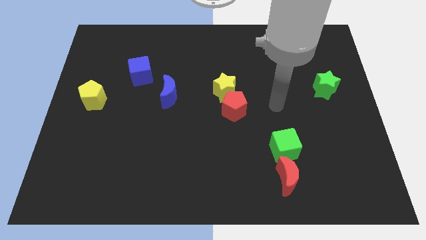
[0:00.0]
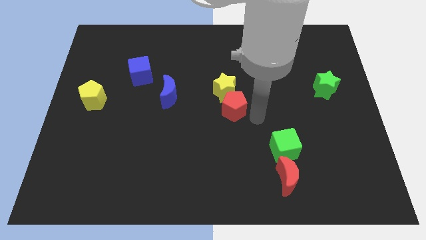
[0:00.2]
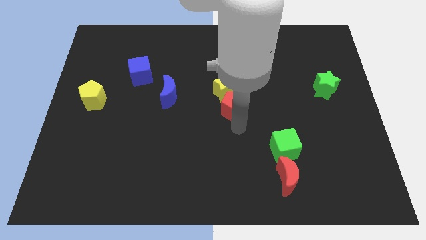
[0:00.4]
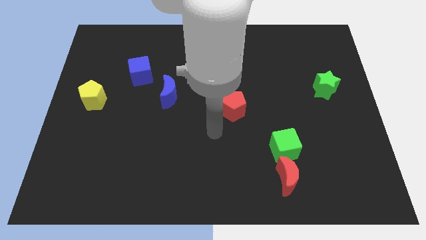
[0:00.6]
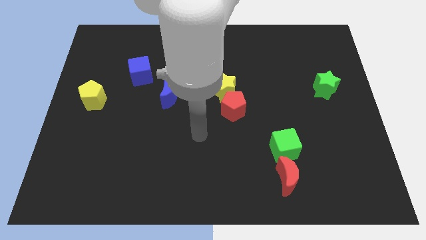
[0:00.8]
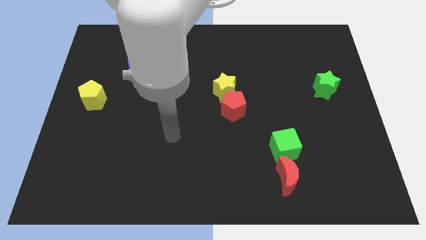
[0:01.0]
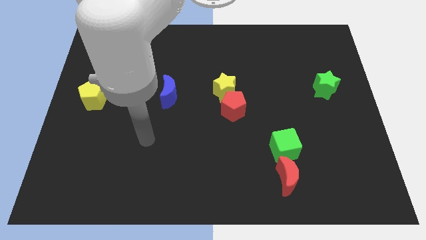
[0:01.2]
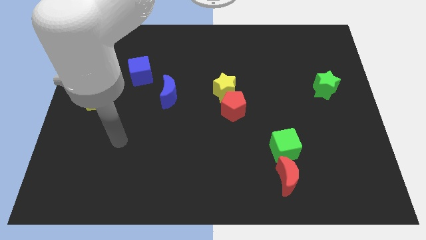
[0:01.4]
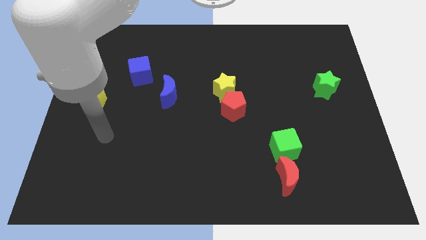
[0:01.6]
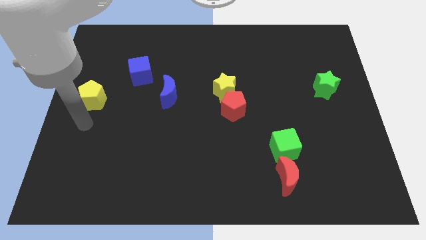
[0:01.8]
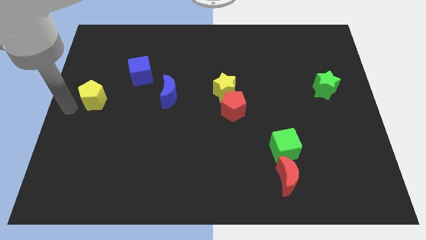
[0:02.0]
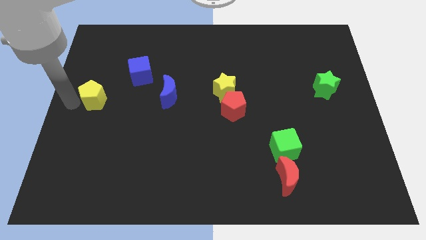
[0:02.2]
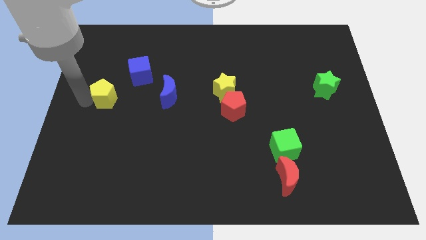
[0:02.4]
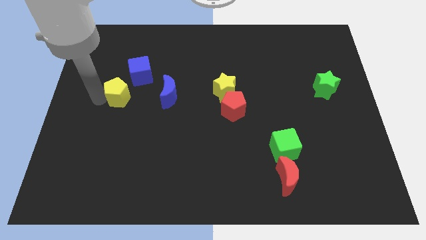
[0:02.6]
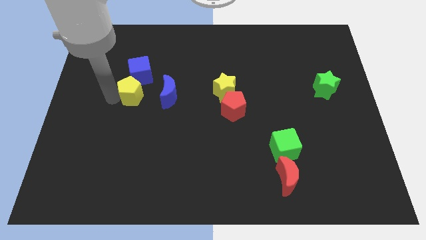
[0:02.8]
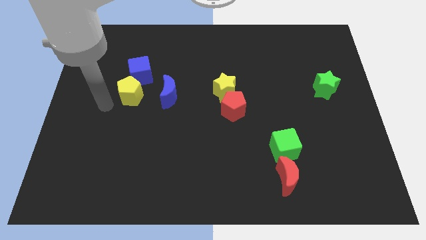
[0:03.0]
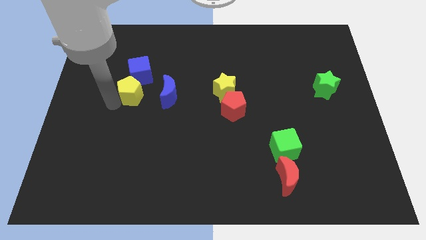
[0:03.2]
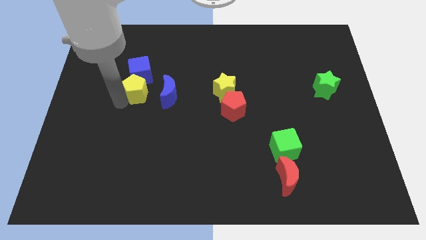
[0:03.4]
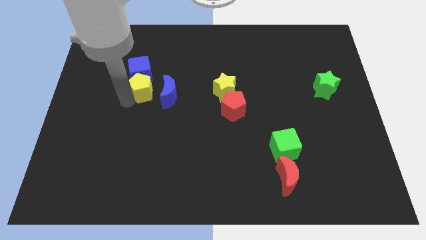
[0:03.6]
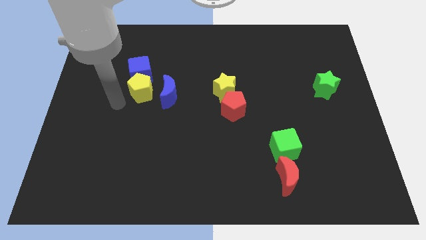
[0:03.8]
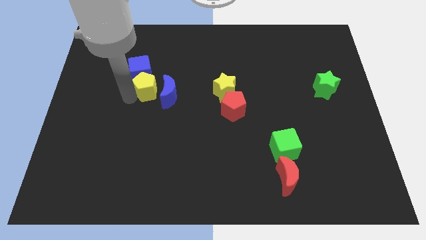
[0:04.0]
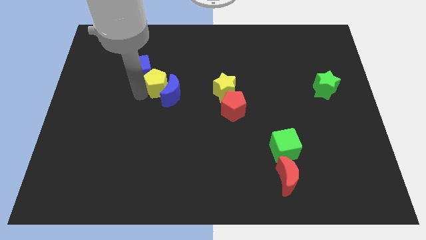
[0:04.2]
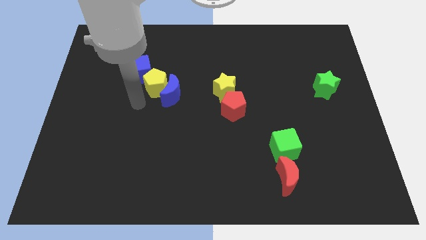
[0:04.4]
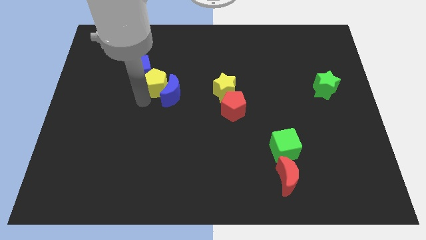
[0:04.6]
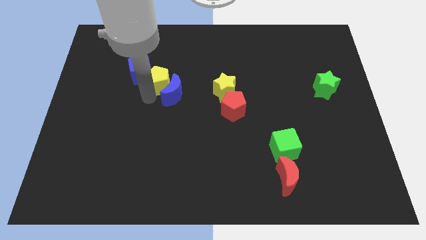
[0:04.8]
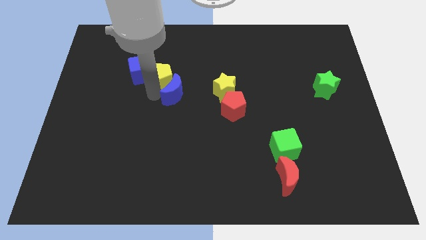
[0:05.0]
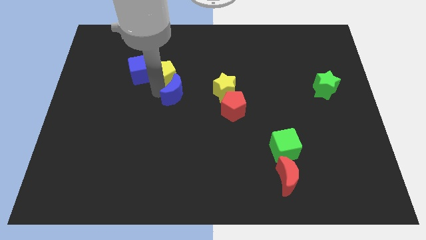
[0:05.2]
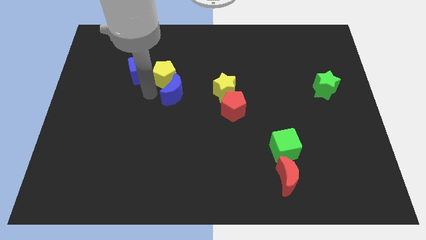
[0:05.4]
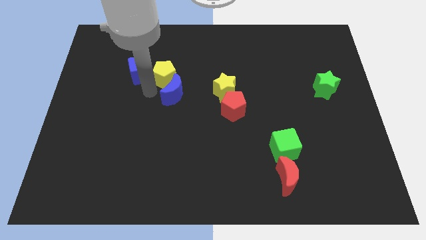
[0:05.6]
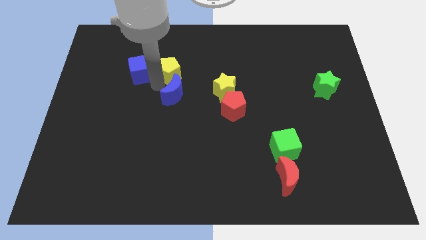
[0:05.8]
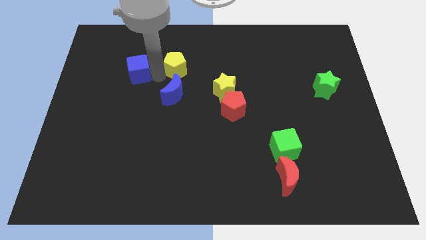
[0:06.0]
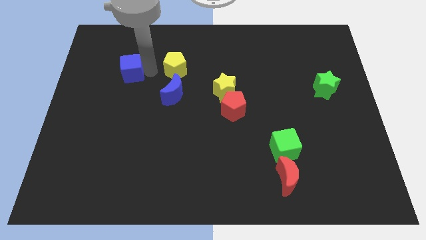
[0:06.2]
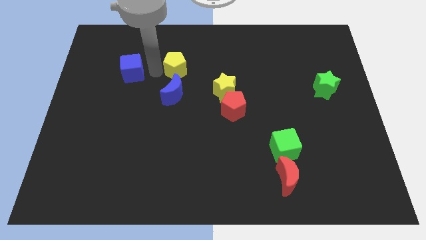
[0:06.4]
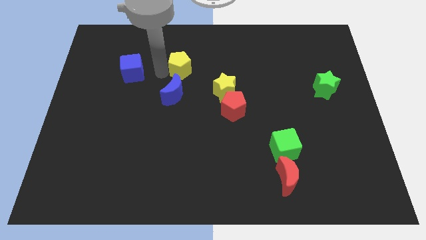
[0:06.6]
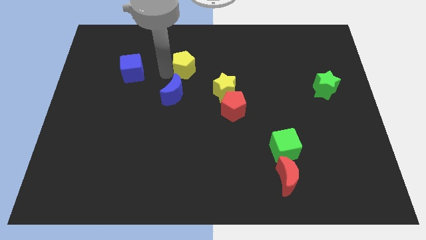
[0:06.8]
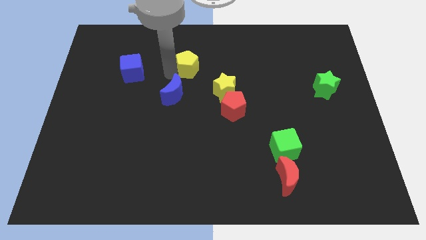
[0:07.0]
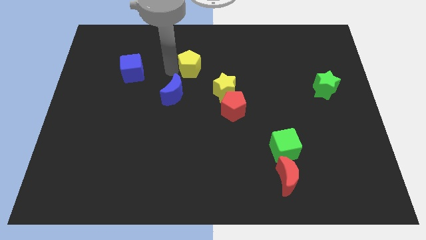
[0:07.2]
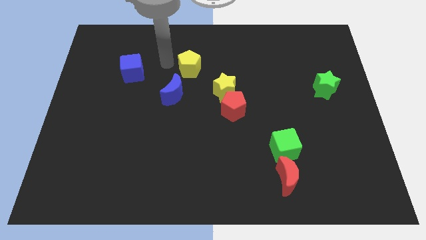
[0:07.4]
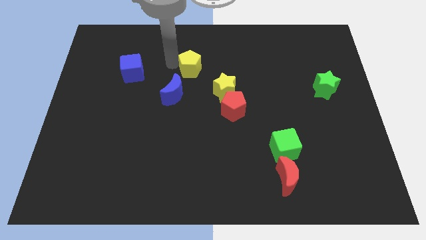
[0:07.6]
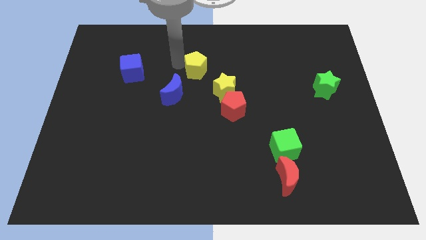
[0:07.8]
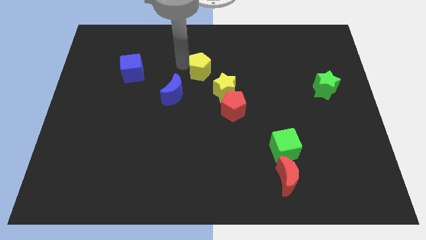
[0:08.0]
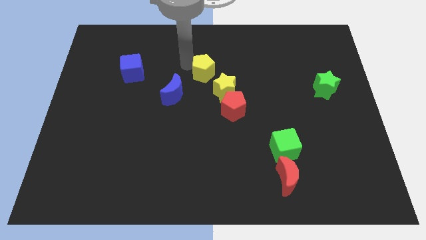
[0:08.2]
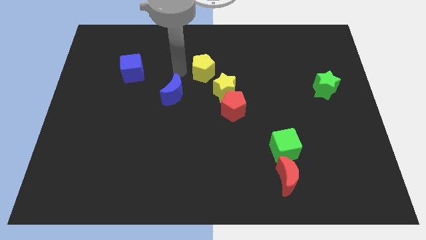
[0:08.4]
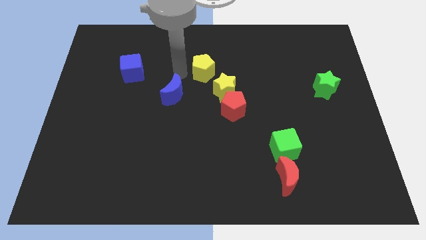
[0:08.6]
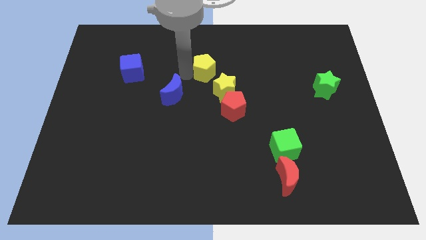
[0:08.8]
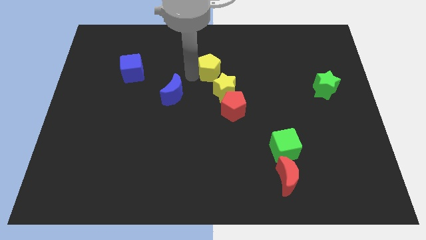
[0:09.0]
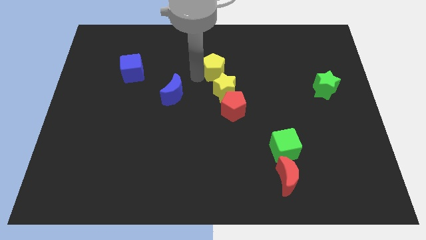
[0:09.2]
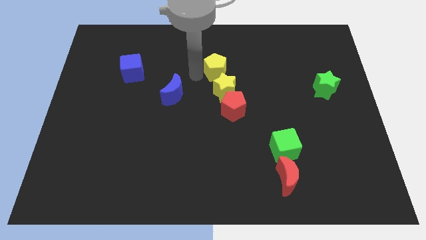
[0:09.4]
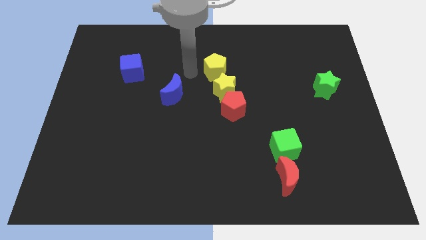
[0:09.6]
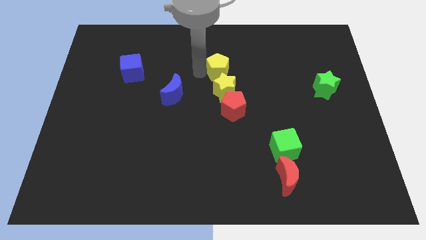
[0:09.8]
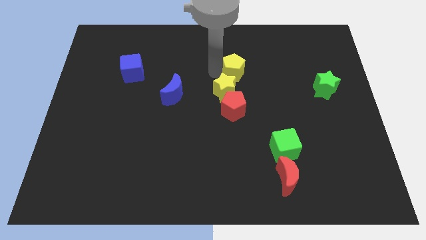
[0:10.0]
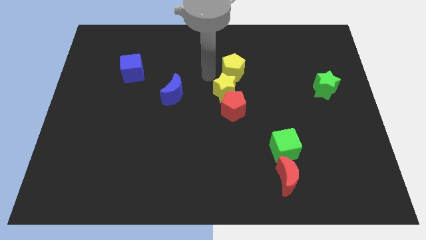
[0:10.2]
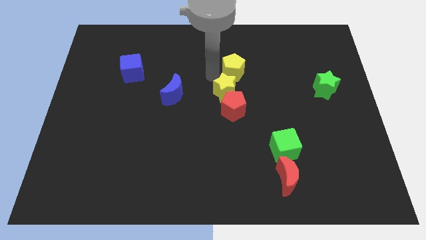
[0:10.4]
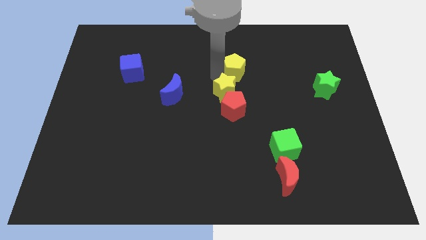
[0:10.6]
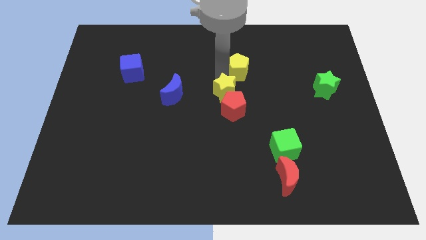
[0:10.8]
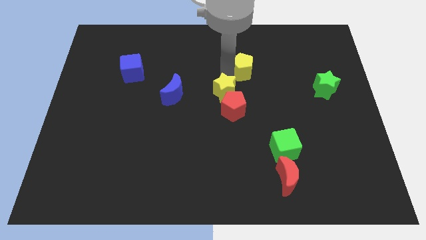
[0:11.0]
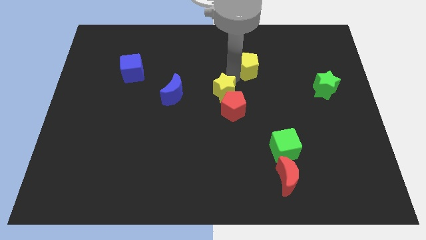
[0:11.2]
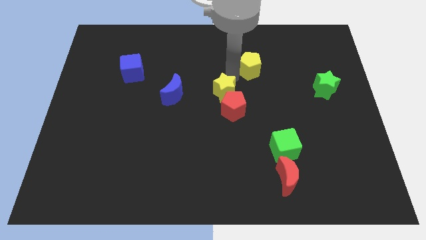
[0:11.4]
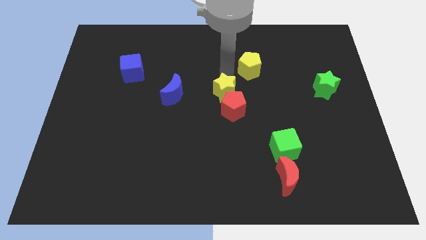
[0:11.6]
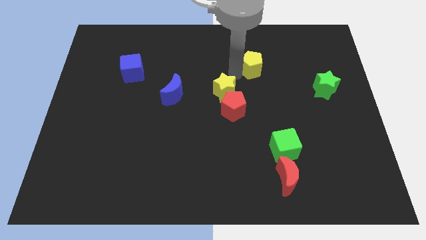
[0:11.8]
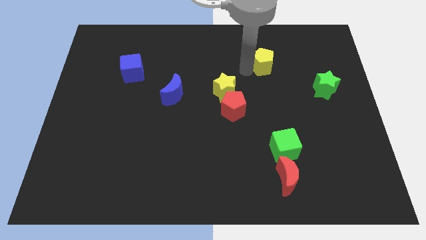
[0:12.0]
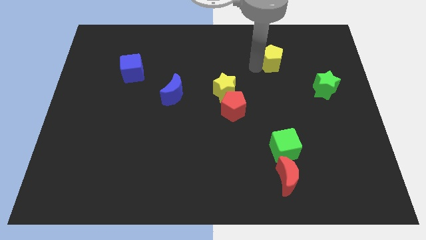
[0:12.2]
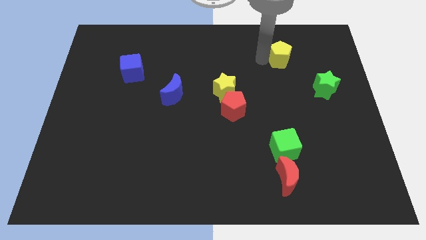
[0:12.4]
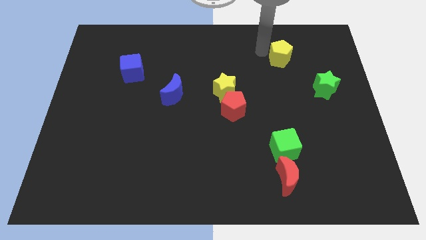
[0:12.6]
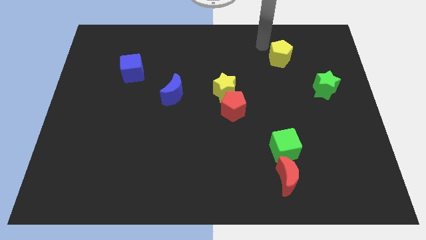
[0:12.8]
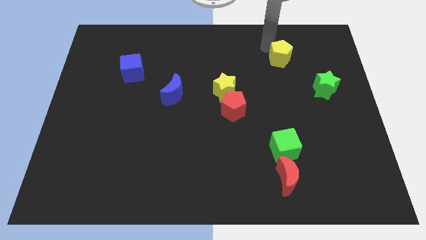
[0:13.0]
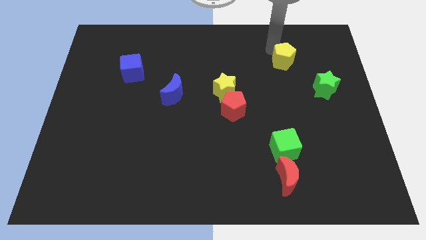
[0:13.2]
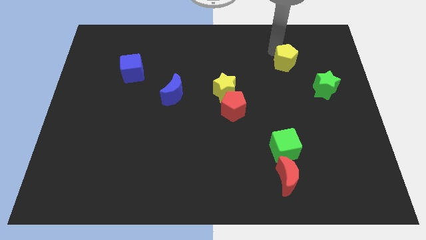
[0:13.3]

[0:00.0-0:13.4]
move the yellow pentagon to the top left side of the green star
